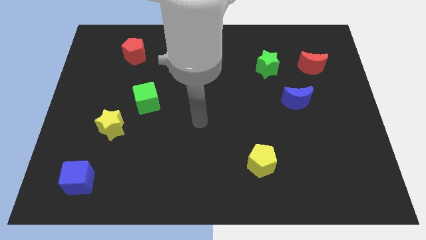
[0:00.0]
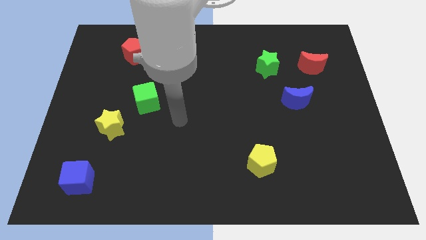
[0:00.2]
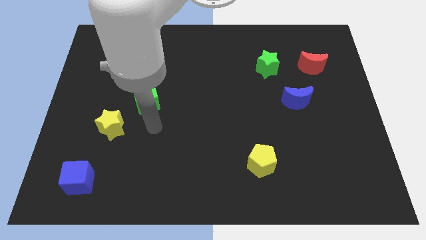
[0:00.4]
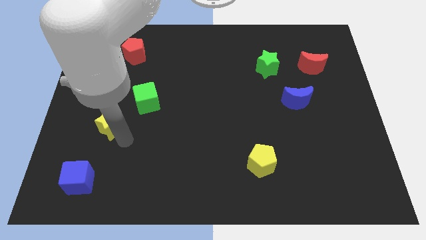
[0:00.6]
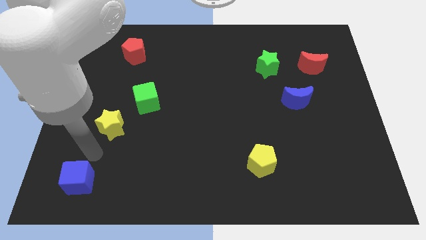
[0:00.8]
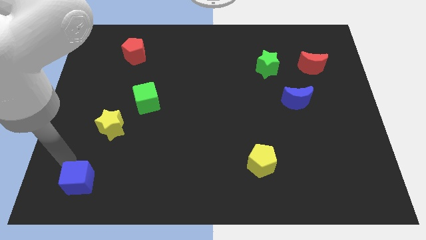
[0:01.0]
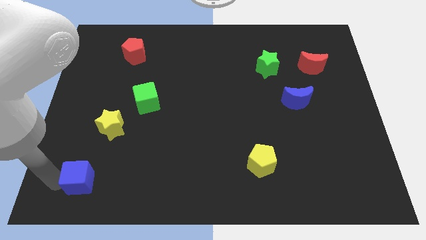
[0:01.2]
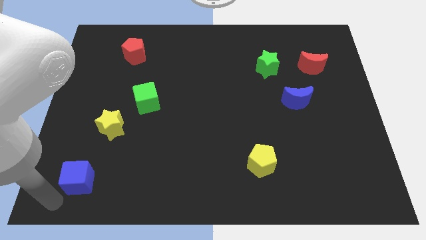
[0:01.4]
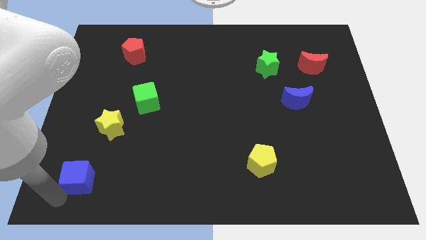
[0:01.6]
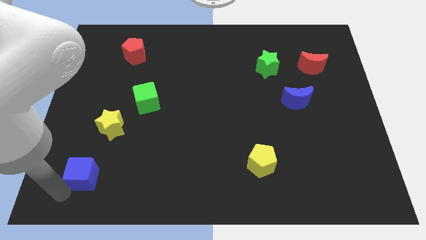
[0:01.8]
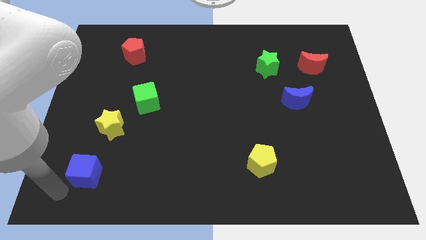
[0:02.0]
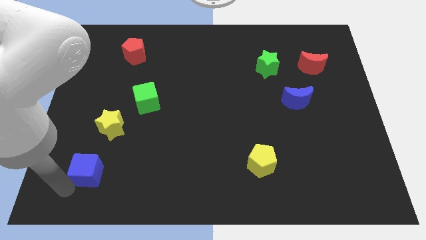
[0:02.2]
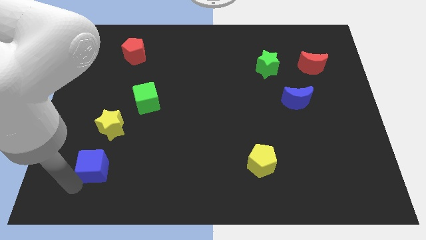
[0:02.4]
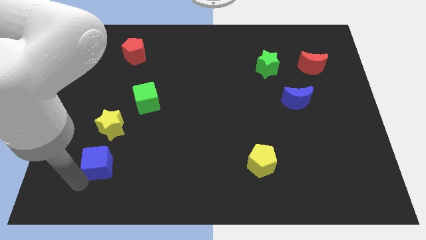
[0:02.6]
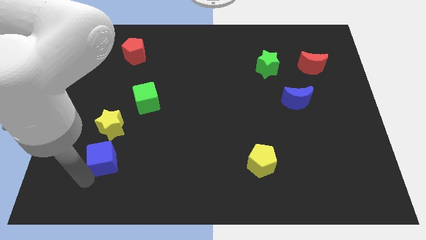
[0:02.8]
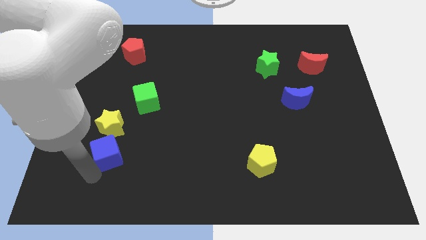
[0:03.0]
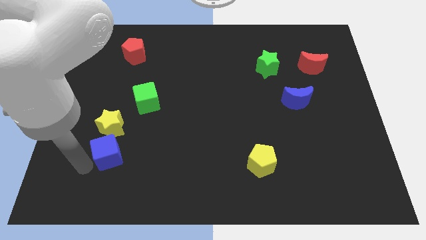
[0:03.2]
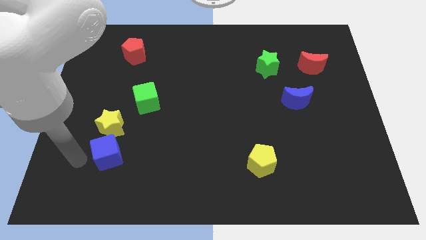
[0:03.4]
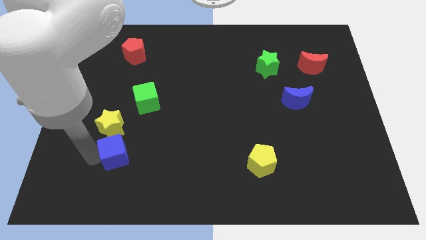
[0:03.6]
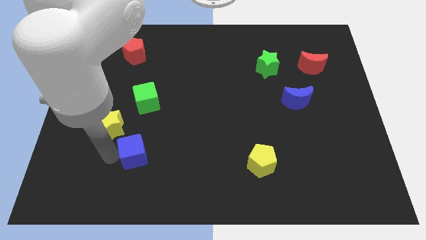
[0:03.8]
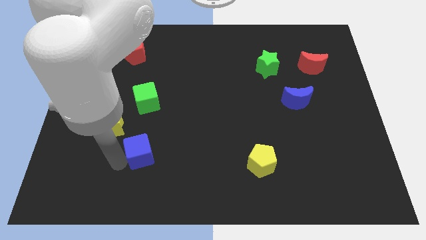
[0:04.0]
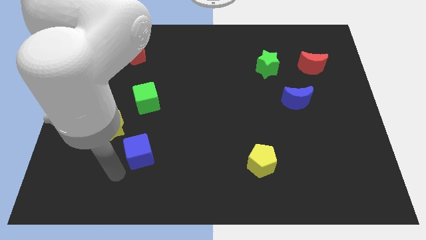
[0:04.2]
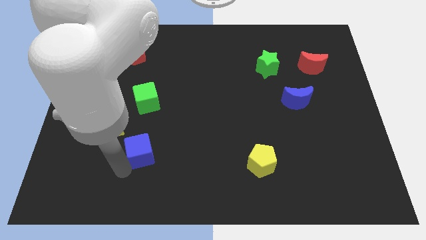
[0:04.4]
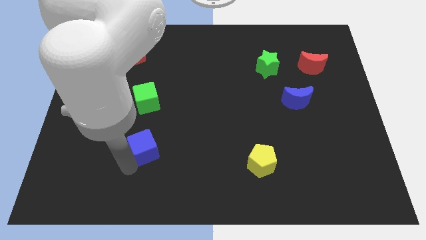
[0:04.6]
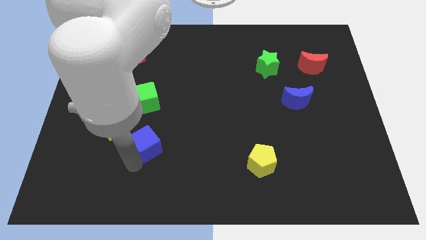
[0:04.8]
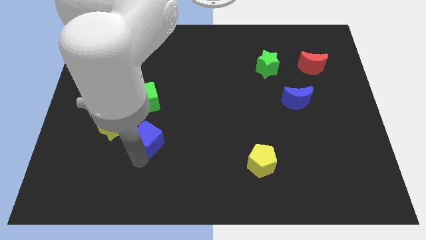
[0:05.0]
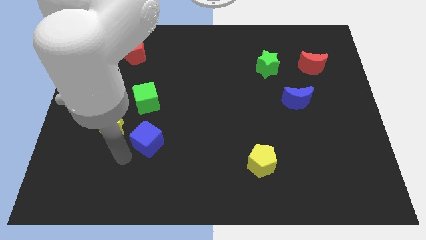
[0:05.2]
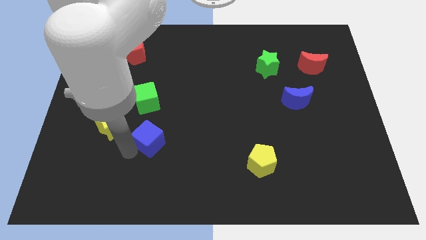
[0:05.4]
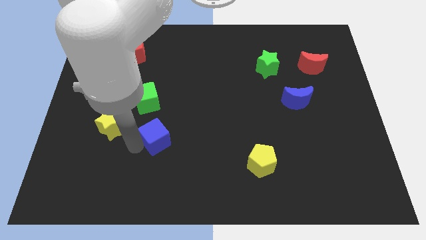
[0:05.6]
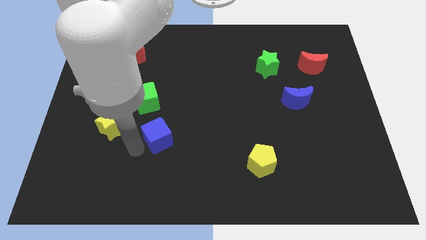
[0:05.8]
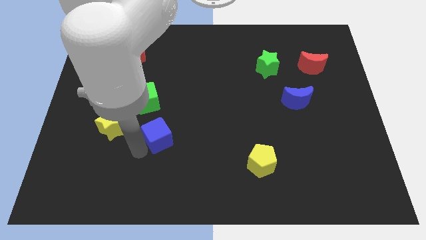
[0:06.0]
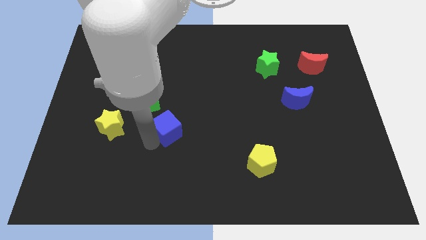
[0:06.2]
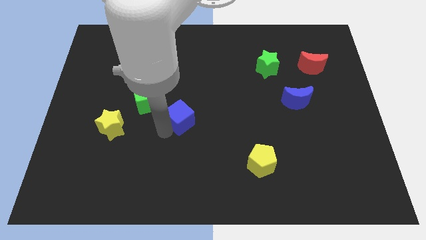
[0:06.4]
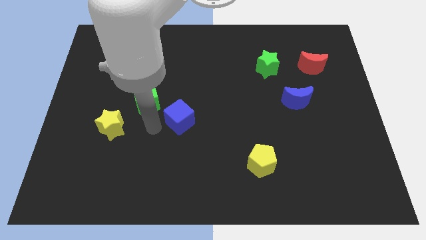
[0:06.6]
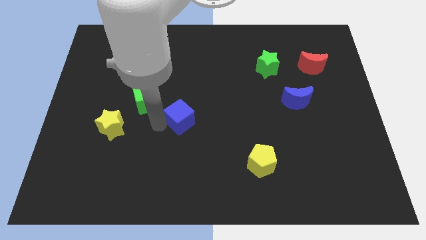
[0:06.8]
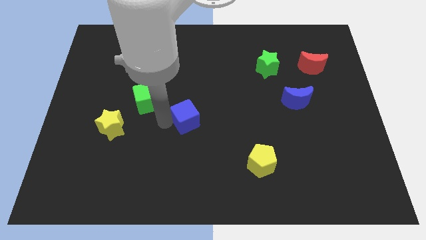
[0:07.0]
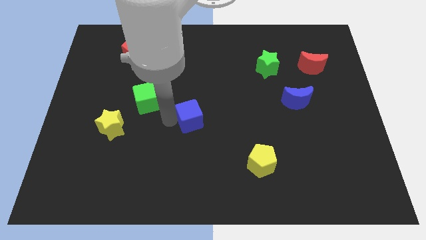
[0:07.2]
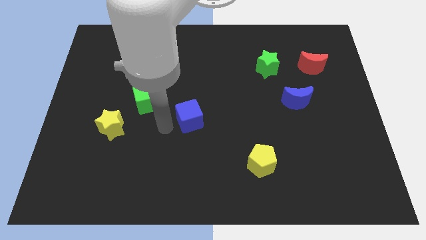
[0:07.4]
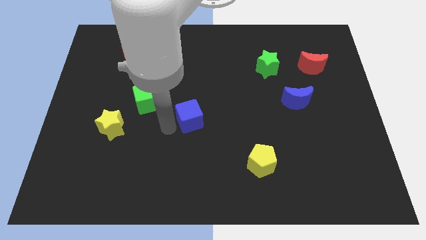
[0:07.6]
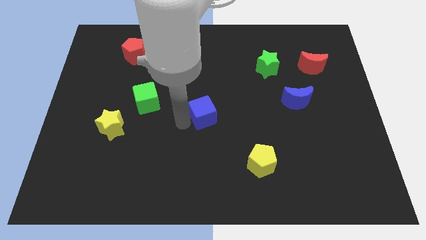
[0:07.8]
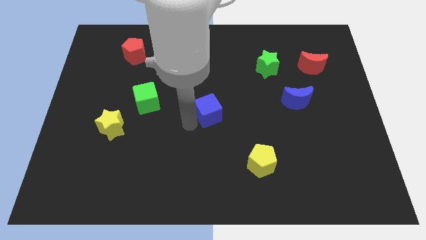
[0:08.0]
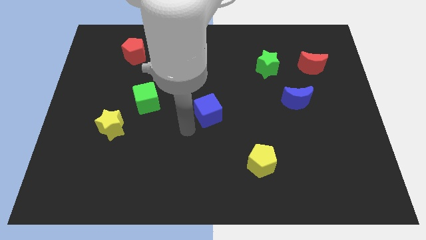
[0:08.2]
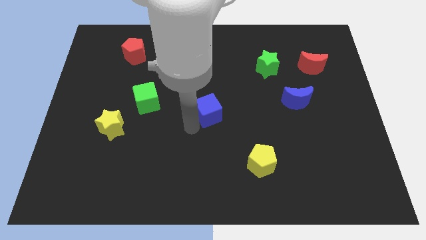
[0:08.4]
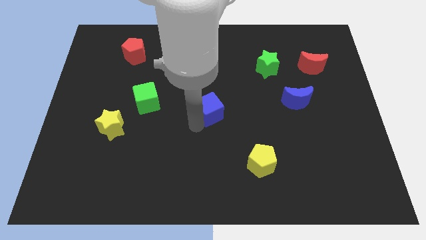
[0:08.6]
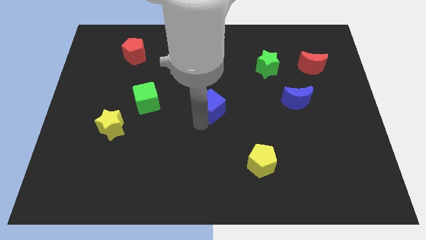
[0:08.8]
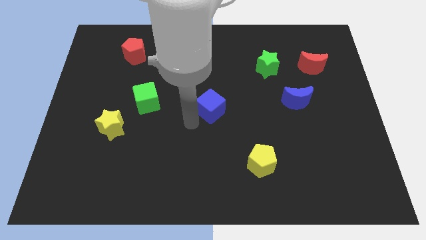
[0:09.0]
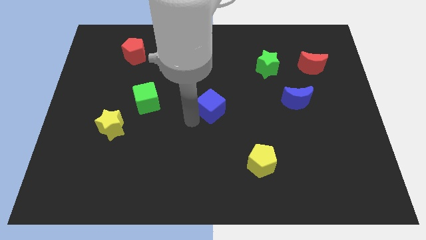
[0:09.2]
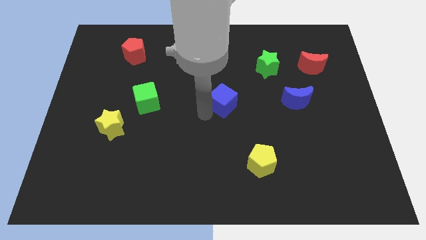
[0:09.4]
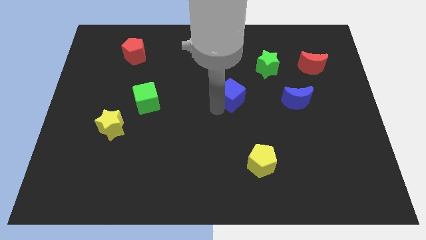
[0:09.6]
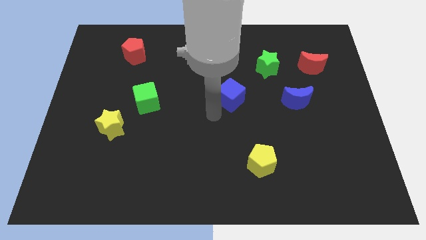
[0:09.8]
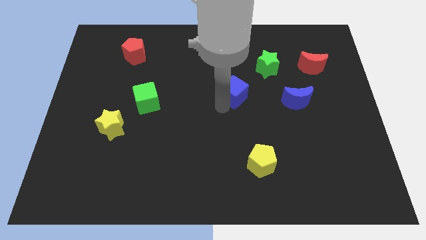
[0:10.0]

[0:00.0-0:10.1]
push the blue cube to the bottom left of the green star

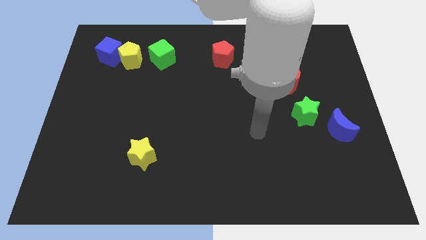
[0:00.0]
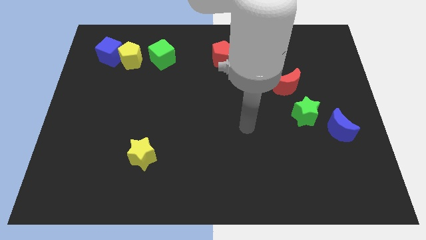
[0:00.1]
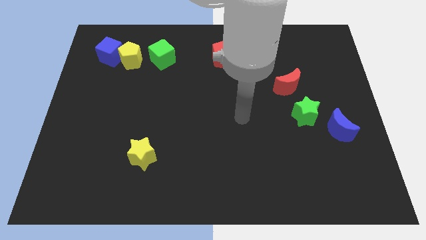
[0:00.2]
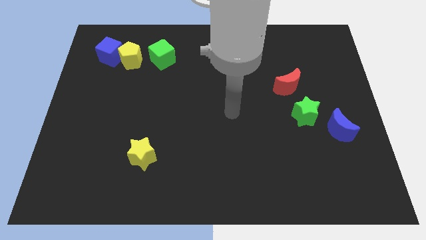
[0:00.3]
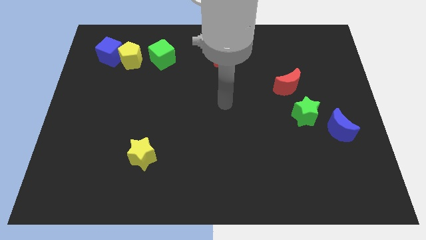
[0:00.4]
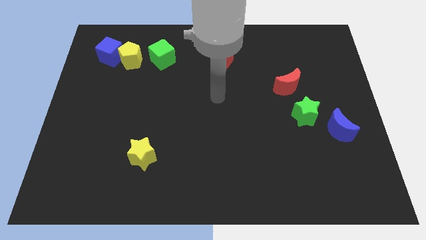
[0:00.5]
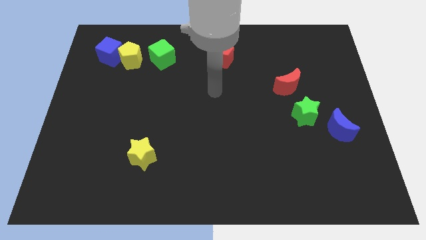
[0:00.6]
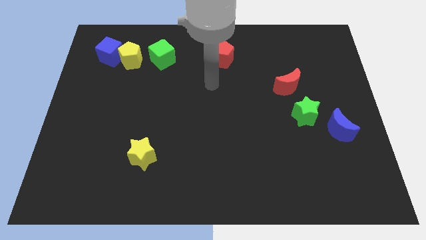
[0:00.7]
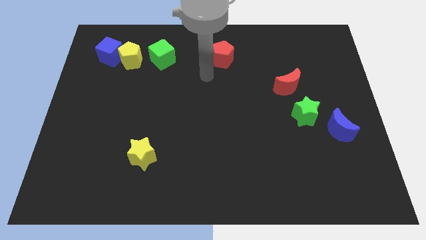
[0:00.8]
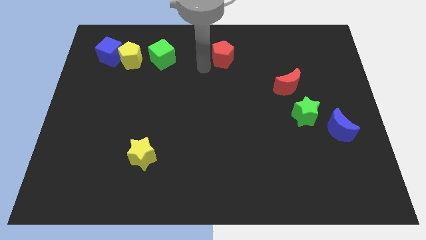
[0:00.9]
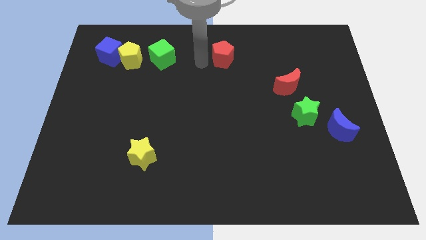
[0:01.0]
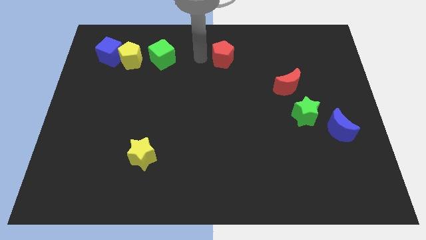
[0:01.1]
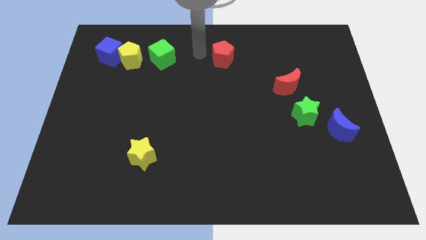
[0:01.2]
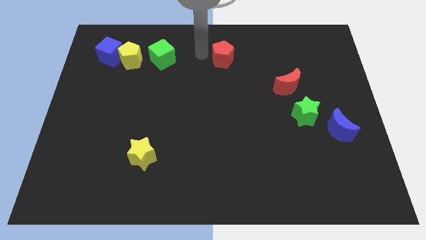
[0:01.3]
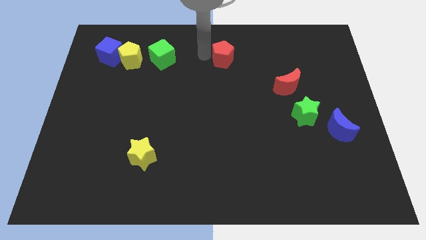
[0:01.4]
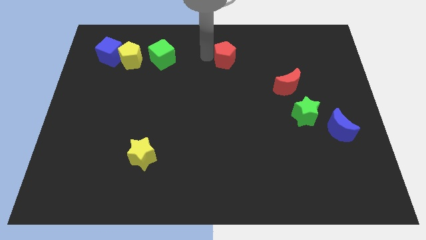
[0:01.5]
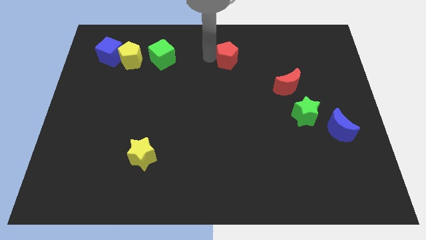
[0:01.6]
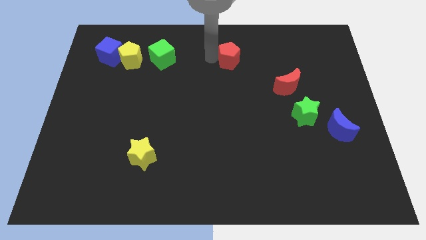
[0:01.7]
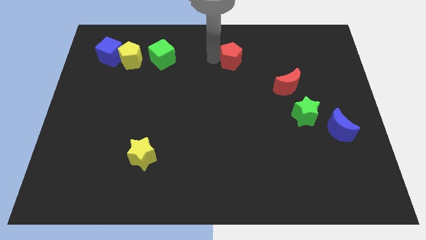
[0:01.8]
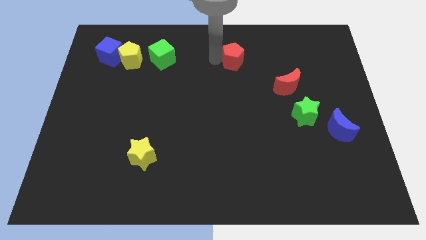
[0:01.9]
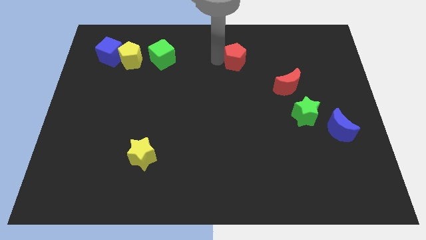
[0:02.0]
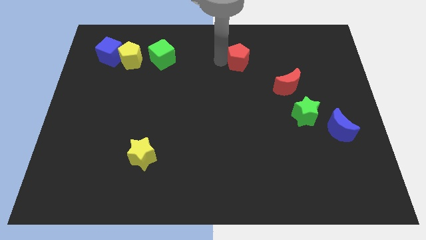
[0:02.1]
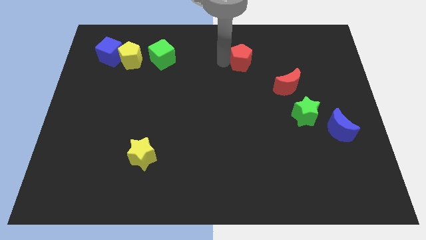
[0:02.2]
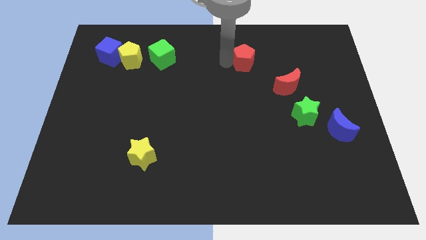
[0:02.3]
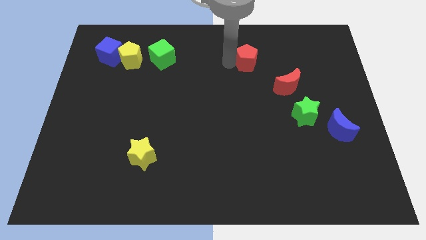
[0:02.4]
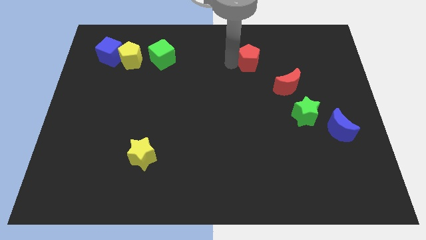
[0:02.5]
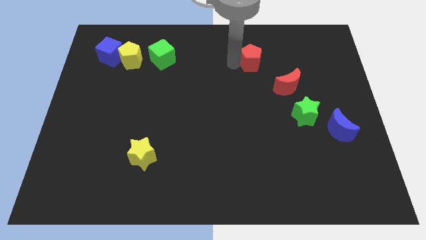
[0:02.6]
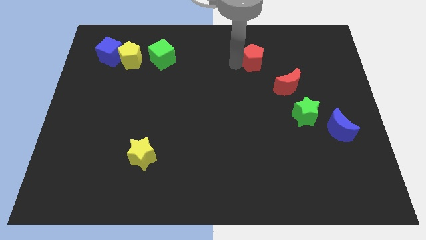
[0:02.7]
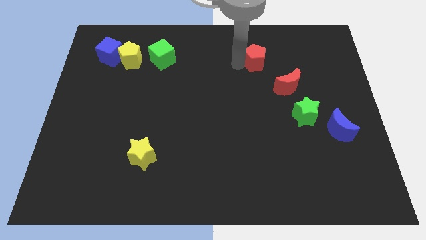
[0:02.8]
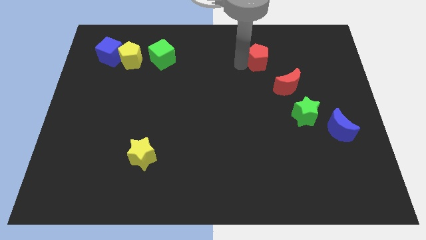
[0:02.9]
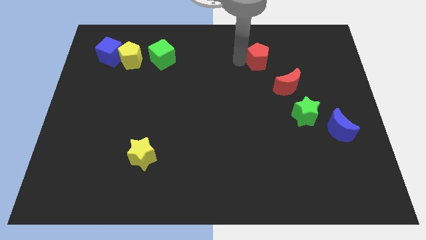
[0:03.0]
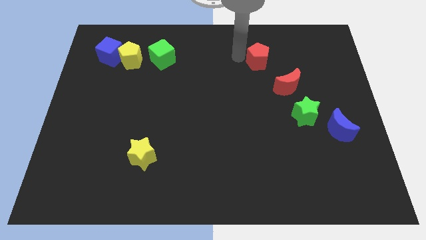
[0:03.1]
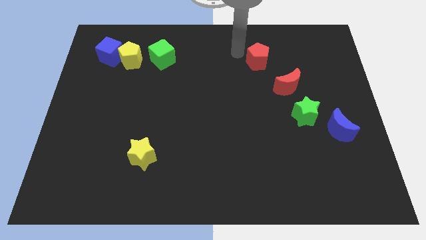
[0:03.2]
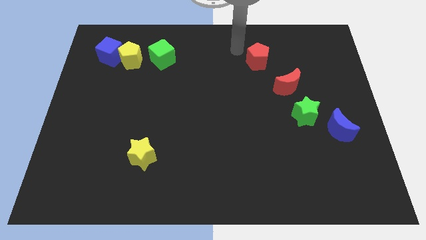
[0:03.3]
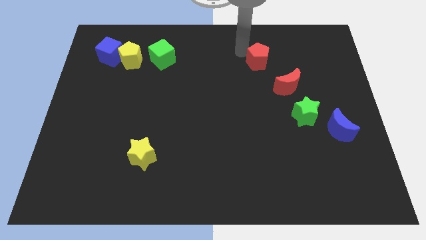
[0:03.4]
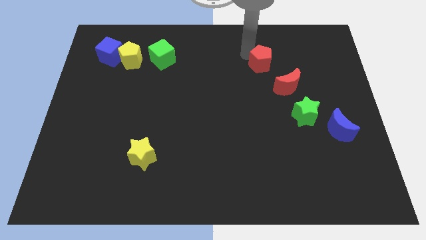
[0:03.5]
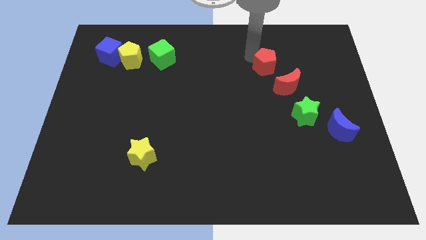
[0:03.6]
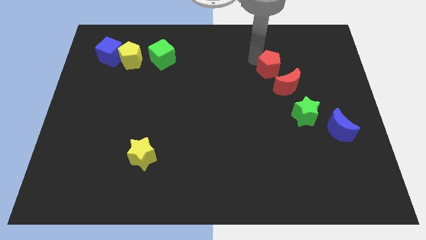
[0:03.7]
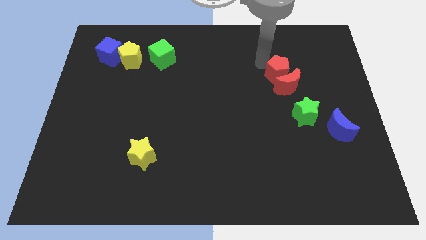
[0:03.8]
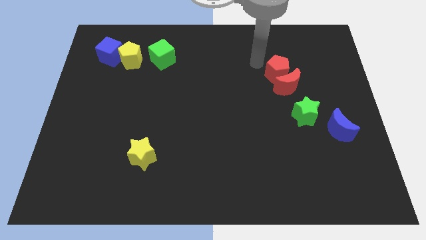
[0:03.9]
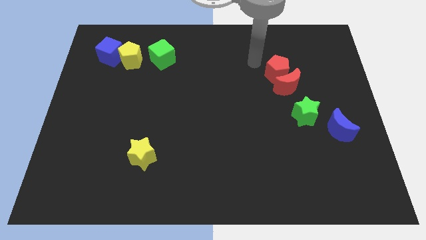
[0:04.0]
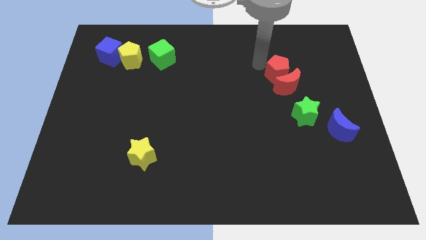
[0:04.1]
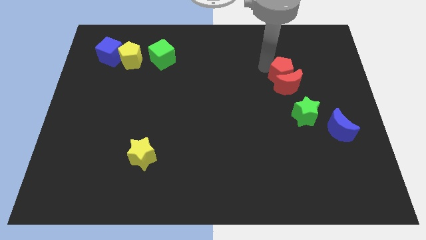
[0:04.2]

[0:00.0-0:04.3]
move the red pentagon above the green star
